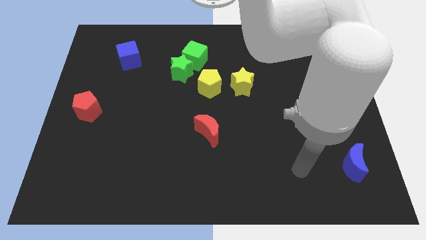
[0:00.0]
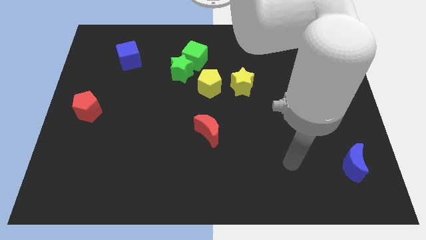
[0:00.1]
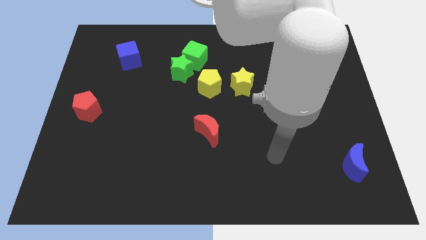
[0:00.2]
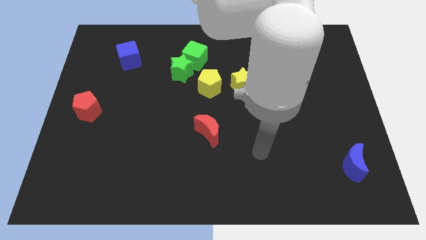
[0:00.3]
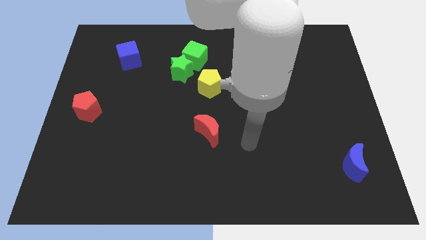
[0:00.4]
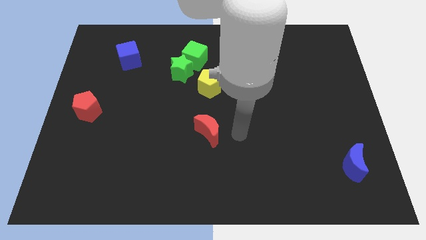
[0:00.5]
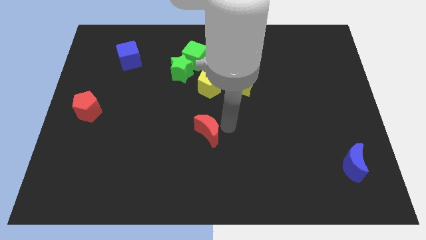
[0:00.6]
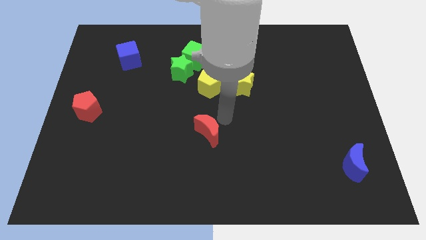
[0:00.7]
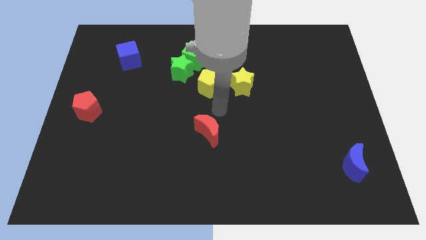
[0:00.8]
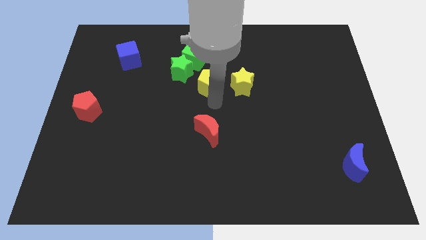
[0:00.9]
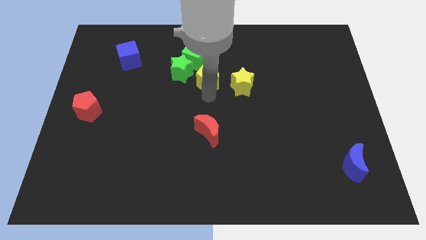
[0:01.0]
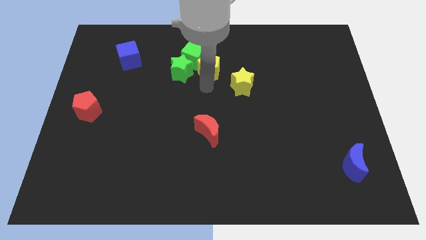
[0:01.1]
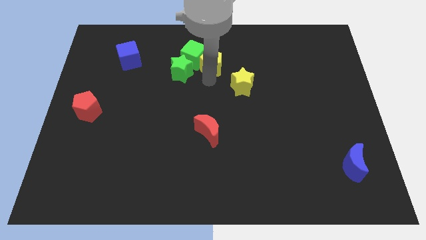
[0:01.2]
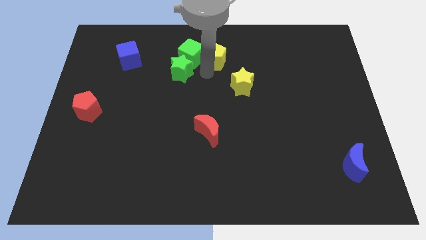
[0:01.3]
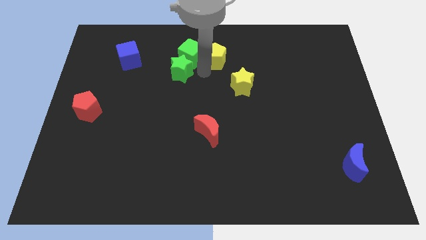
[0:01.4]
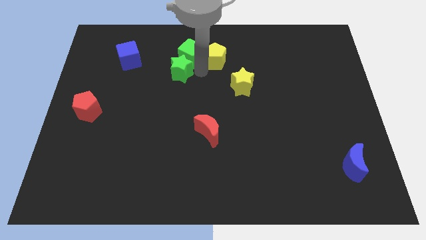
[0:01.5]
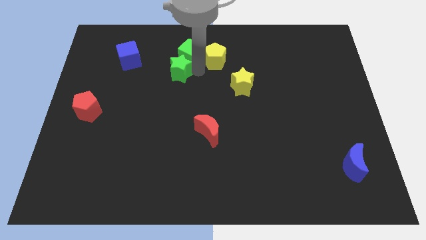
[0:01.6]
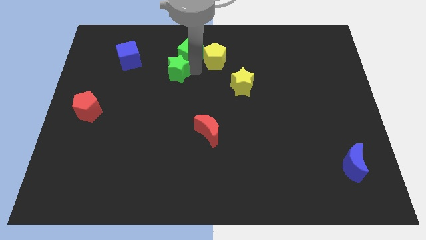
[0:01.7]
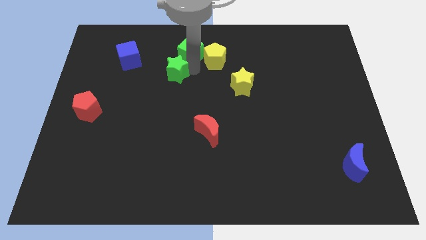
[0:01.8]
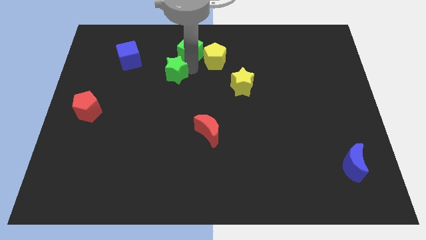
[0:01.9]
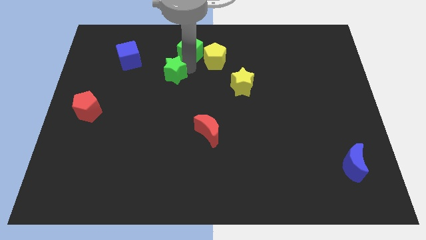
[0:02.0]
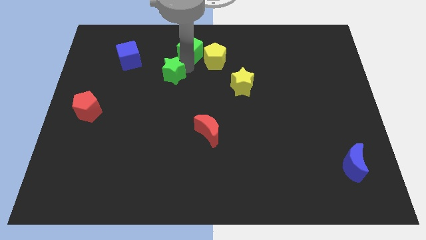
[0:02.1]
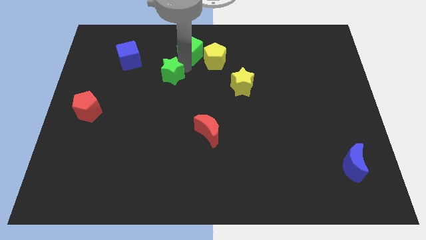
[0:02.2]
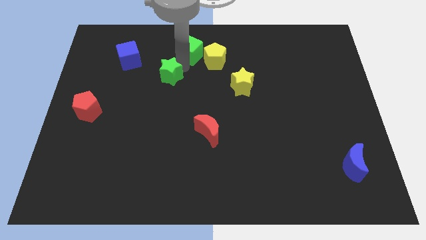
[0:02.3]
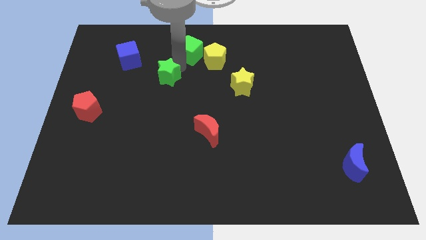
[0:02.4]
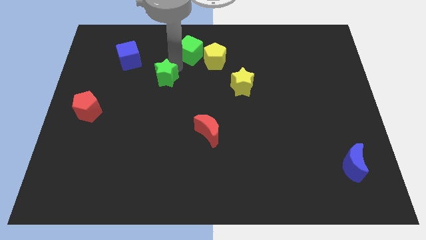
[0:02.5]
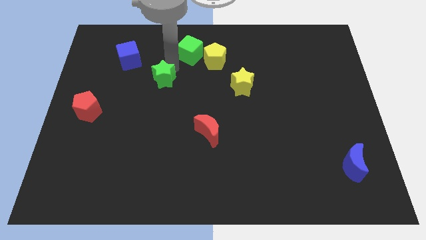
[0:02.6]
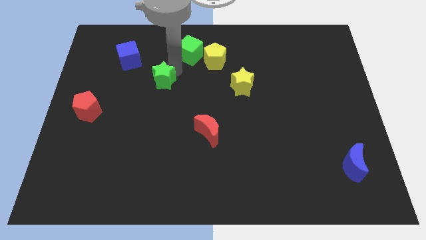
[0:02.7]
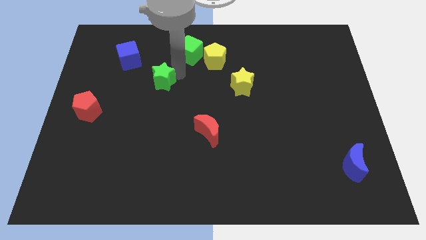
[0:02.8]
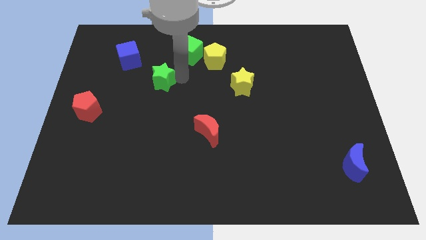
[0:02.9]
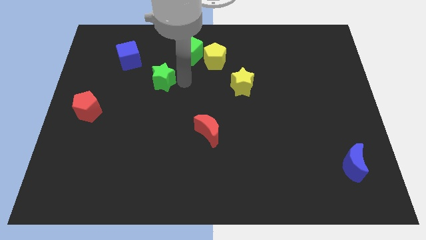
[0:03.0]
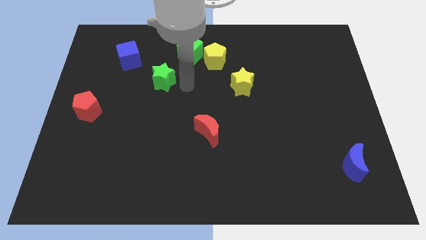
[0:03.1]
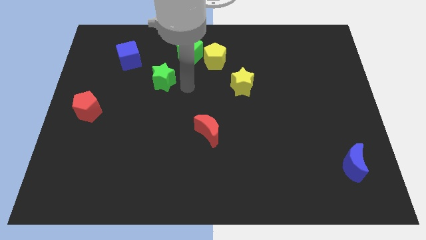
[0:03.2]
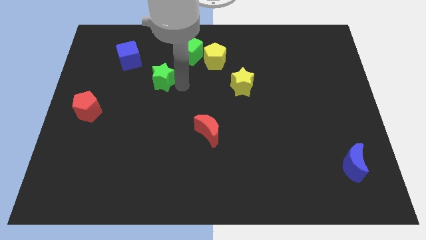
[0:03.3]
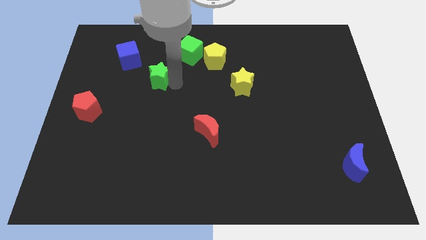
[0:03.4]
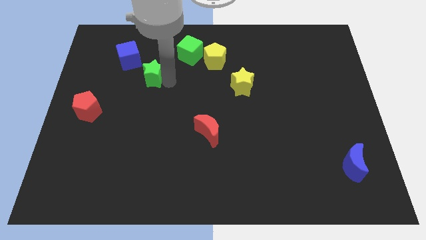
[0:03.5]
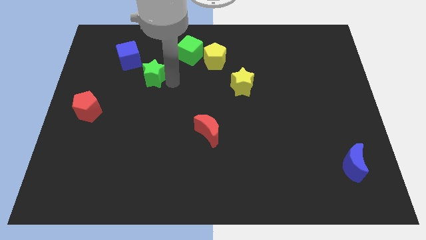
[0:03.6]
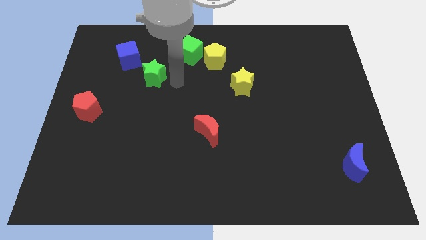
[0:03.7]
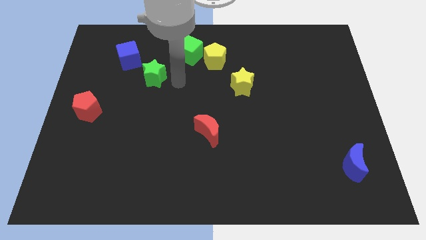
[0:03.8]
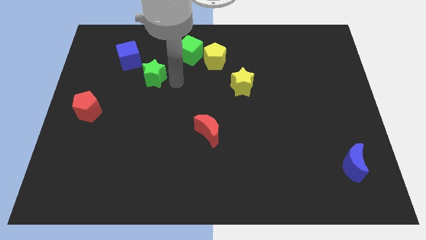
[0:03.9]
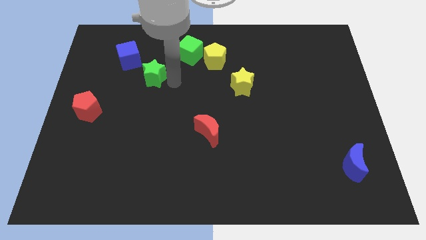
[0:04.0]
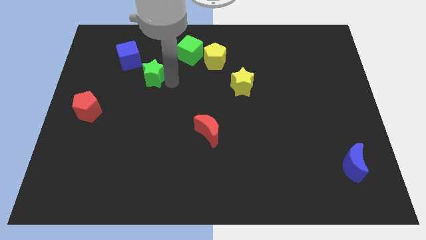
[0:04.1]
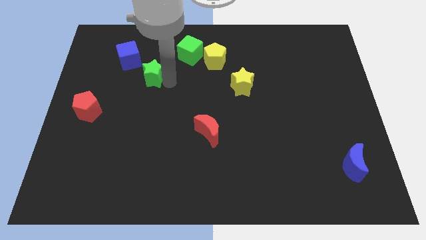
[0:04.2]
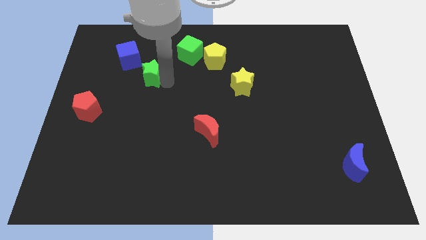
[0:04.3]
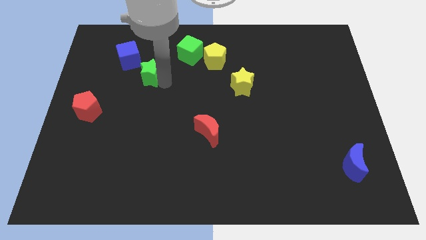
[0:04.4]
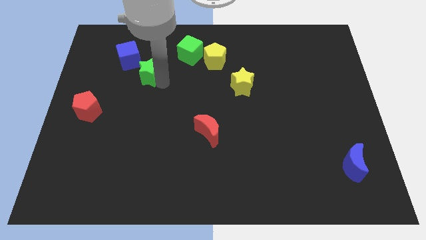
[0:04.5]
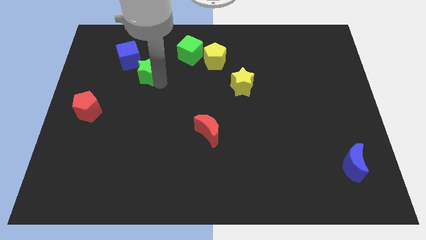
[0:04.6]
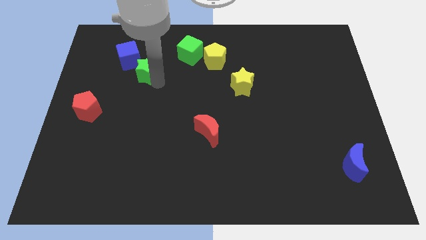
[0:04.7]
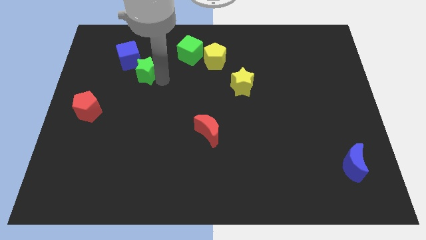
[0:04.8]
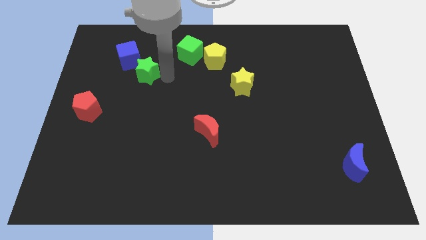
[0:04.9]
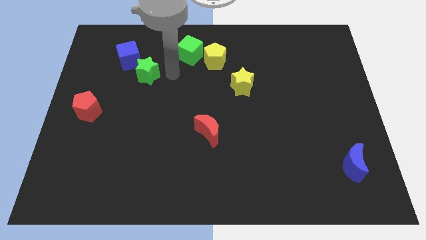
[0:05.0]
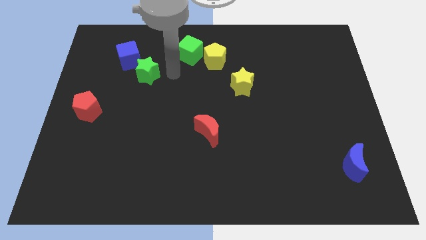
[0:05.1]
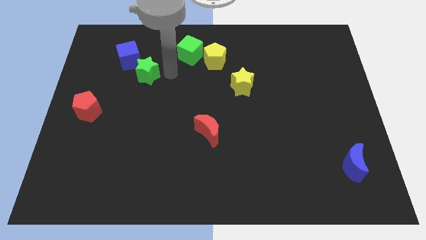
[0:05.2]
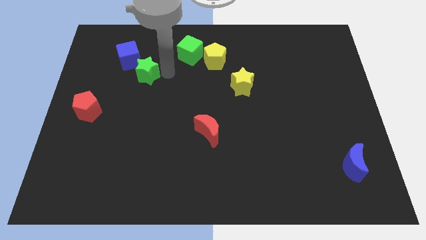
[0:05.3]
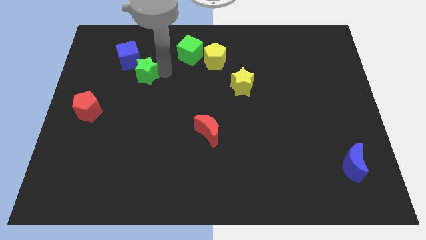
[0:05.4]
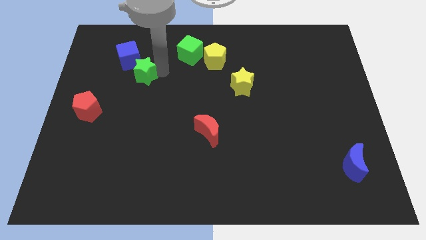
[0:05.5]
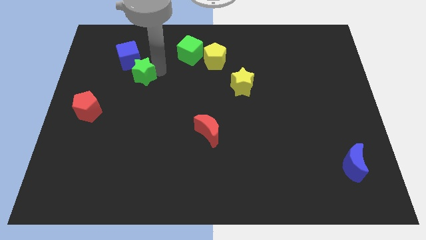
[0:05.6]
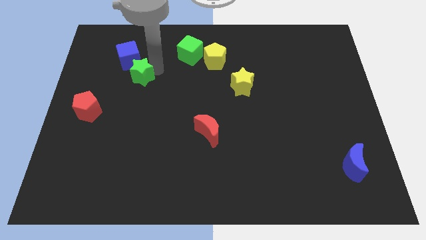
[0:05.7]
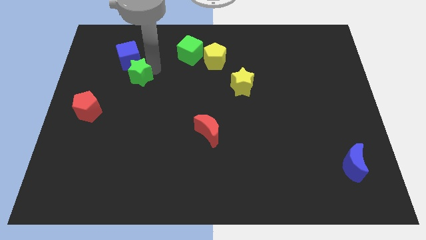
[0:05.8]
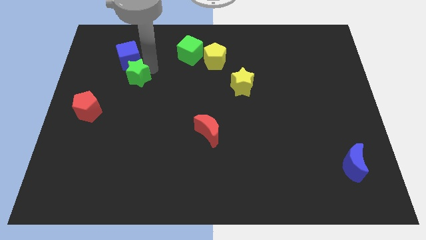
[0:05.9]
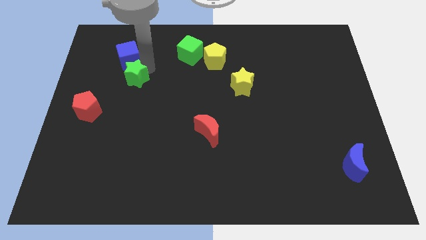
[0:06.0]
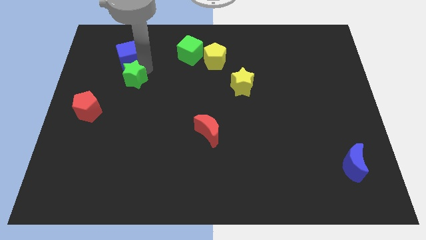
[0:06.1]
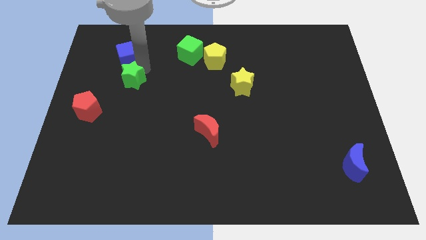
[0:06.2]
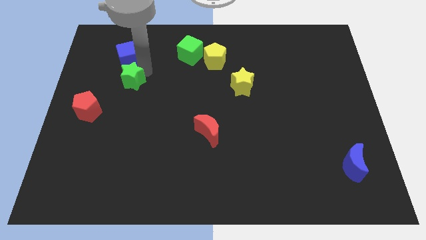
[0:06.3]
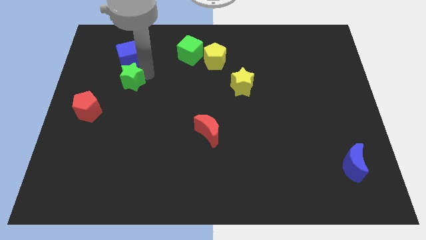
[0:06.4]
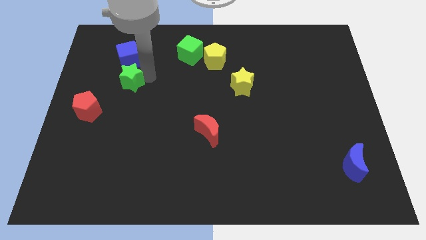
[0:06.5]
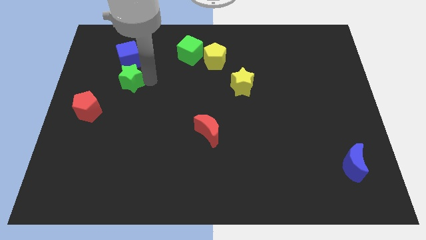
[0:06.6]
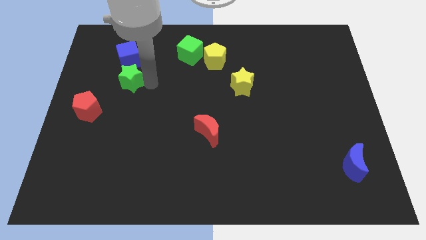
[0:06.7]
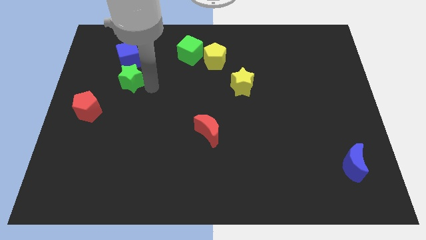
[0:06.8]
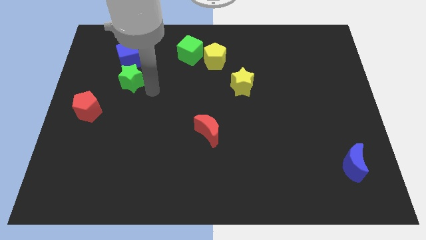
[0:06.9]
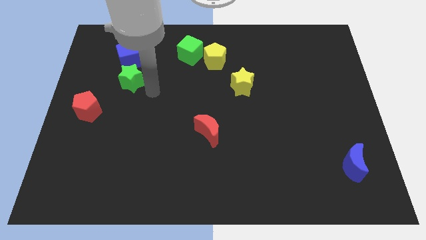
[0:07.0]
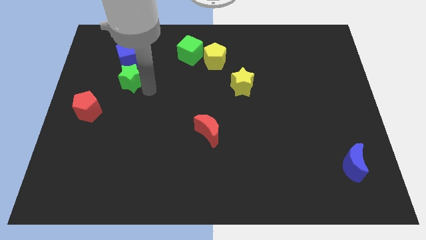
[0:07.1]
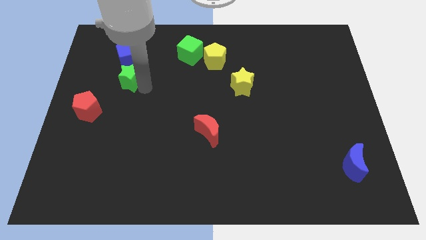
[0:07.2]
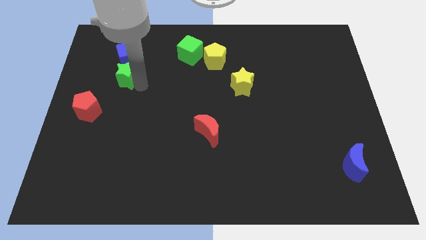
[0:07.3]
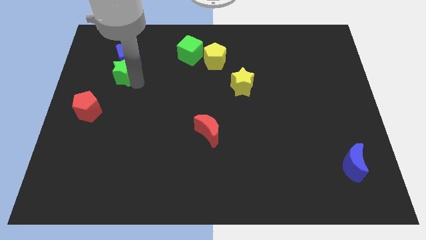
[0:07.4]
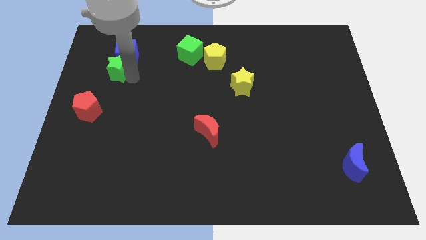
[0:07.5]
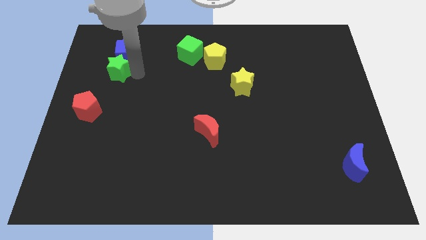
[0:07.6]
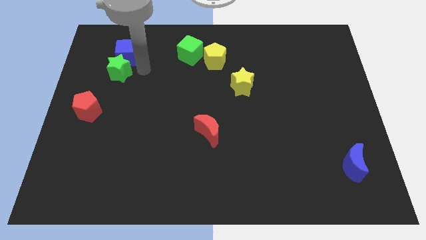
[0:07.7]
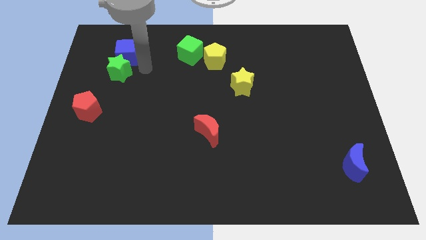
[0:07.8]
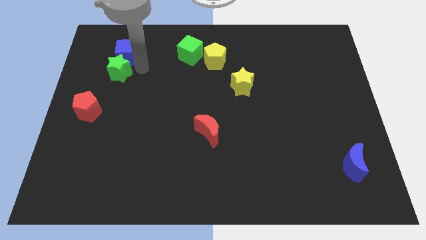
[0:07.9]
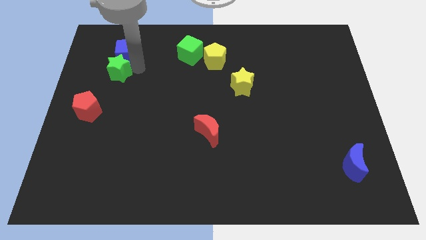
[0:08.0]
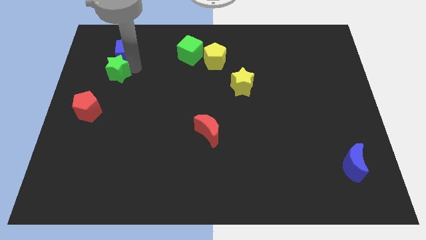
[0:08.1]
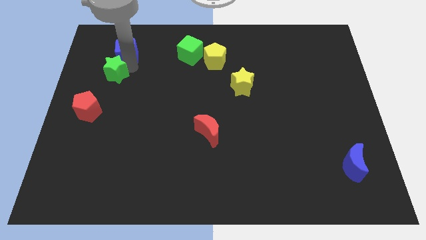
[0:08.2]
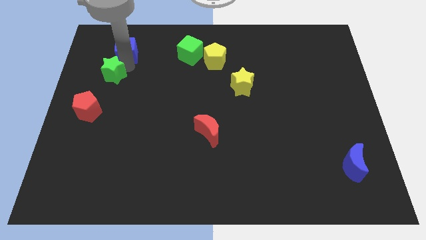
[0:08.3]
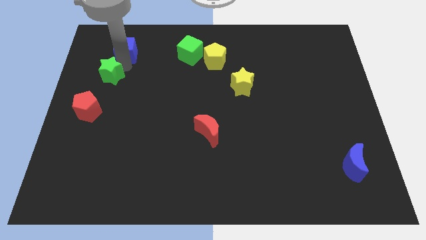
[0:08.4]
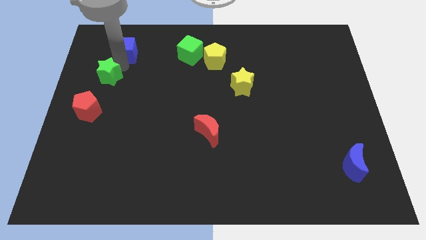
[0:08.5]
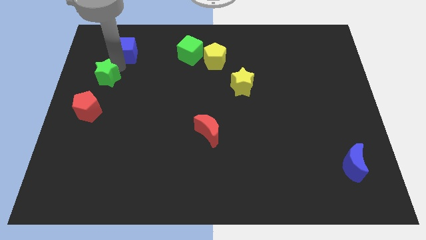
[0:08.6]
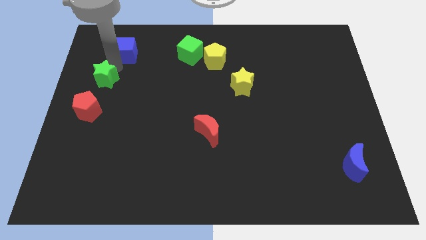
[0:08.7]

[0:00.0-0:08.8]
put the green star to the center left
